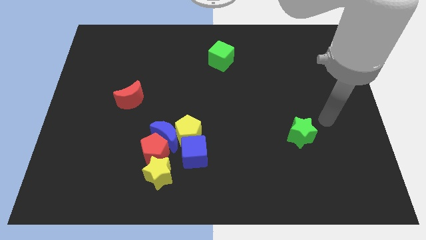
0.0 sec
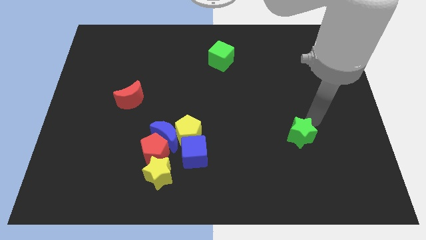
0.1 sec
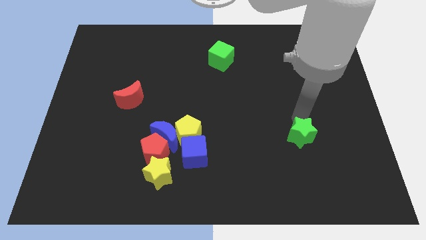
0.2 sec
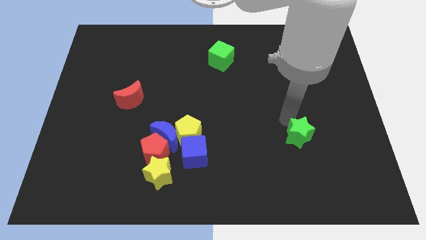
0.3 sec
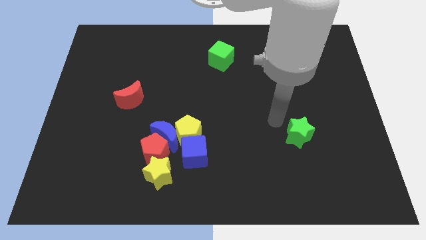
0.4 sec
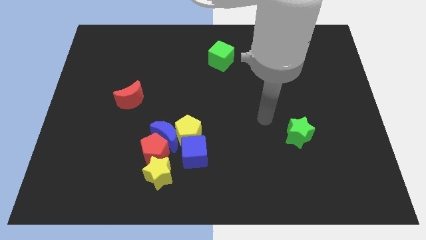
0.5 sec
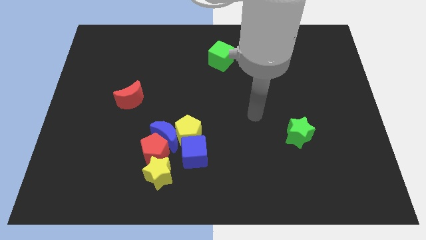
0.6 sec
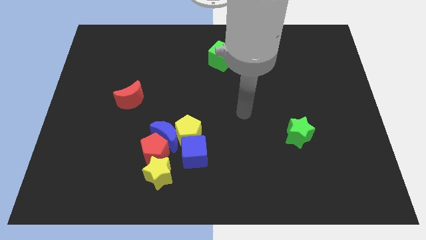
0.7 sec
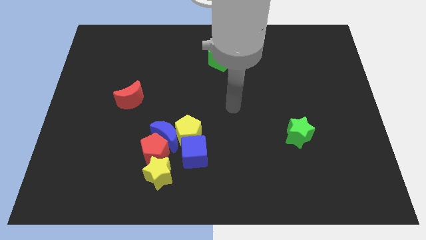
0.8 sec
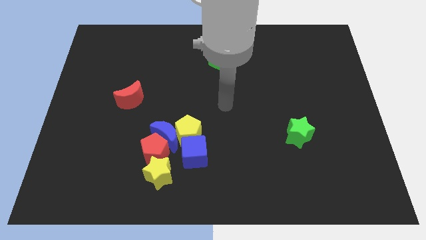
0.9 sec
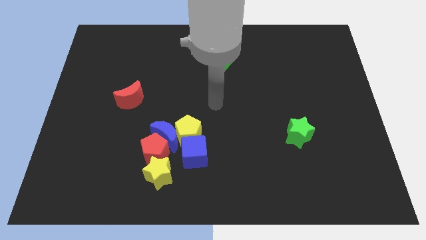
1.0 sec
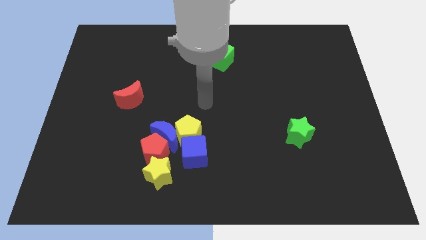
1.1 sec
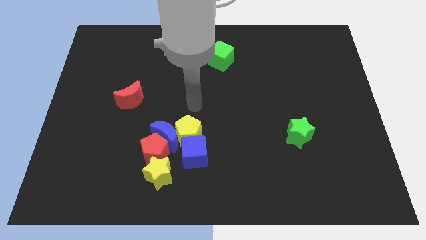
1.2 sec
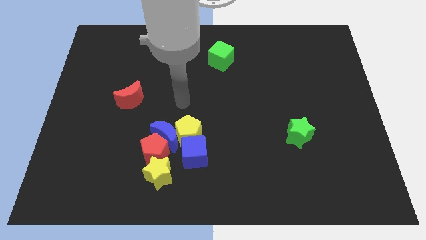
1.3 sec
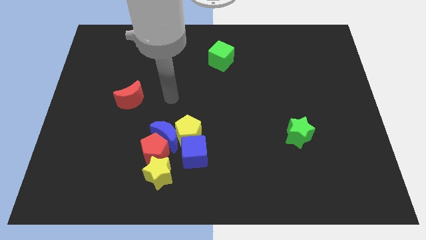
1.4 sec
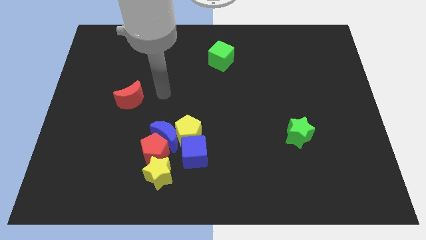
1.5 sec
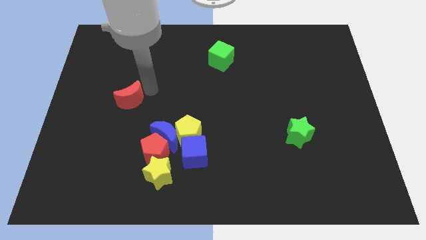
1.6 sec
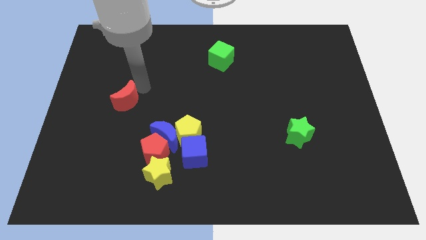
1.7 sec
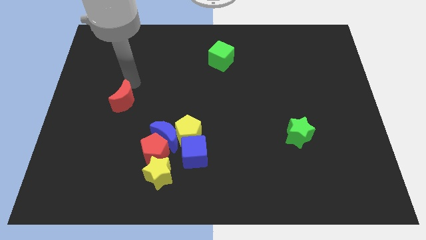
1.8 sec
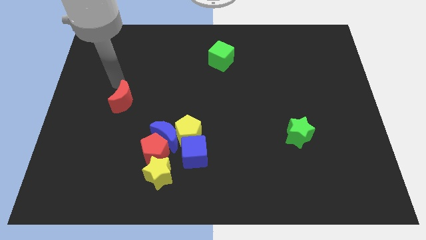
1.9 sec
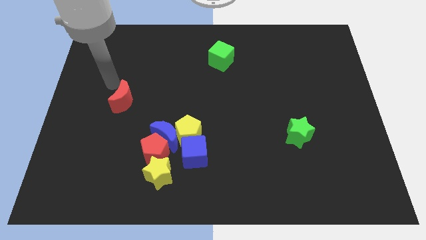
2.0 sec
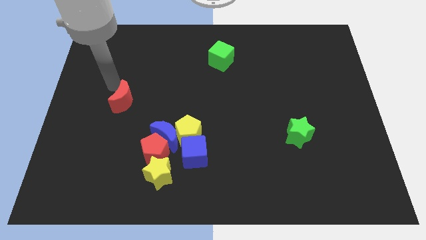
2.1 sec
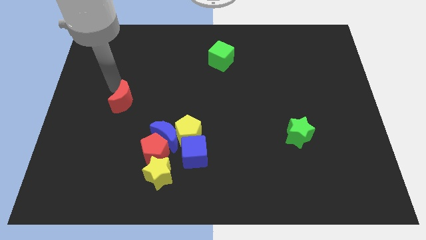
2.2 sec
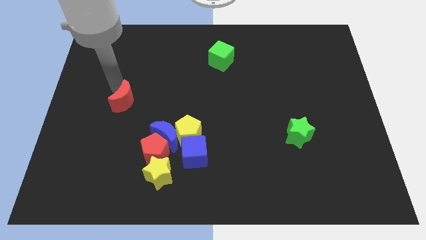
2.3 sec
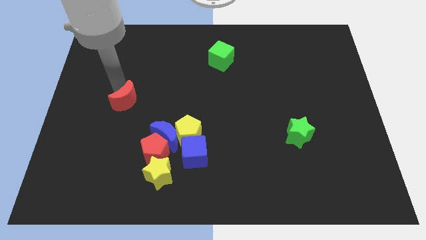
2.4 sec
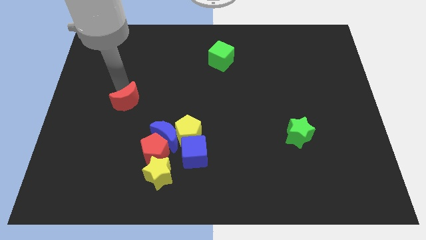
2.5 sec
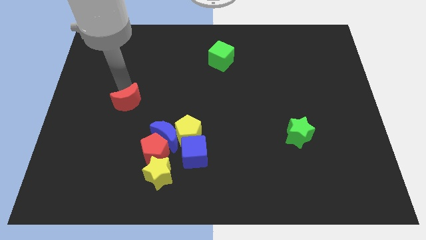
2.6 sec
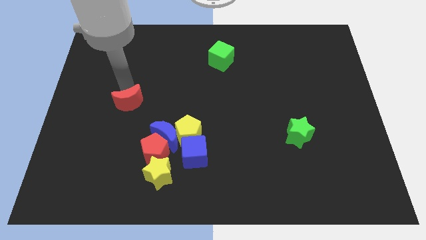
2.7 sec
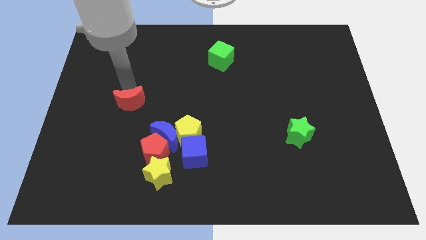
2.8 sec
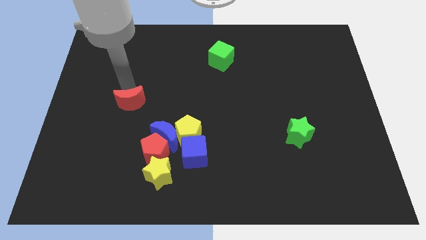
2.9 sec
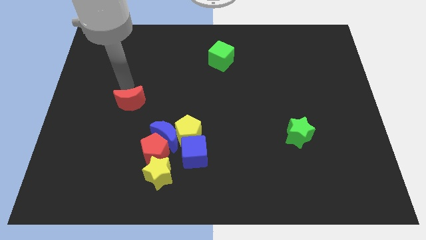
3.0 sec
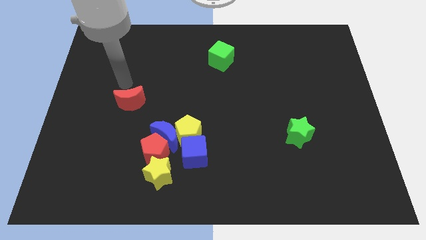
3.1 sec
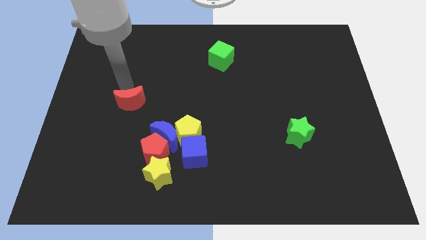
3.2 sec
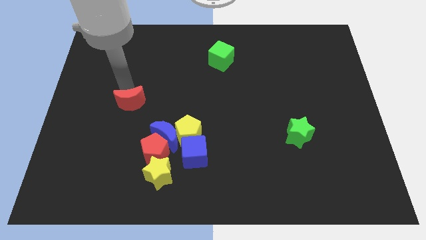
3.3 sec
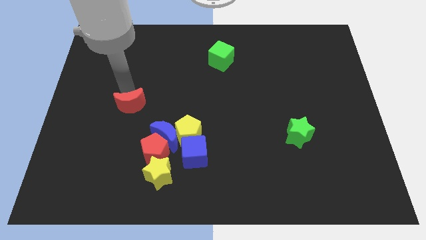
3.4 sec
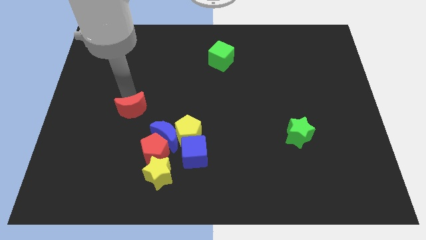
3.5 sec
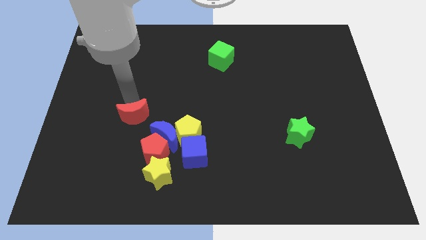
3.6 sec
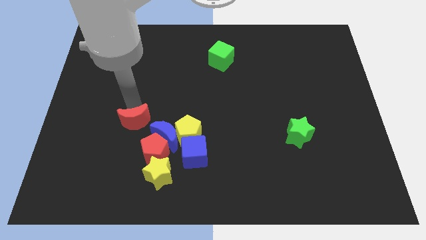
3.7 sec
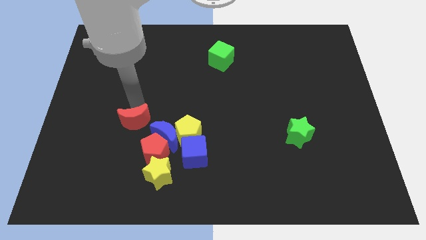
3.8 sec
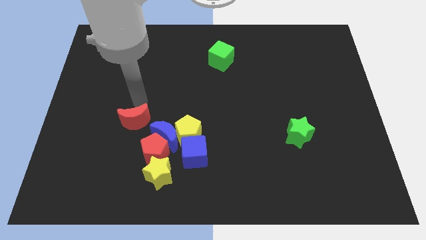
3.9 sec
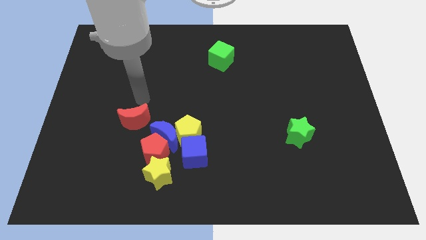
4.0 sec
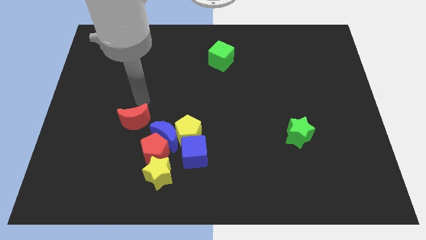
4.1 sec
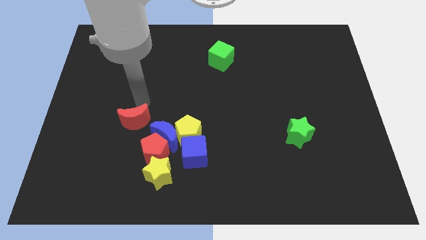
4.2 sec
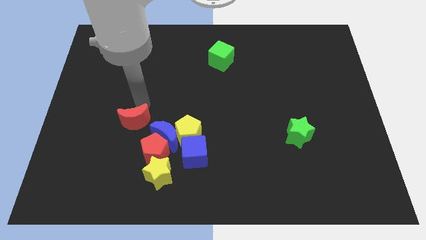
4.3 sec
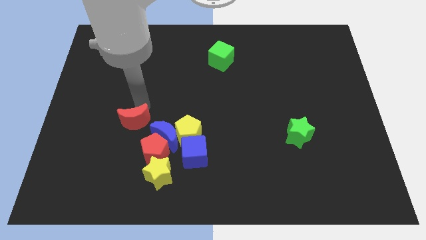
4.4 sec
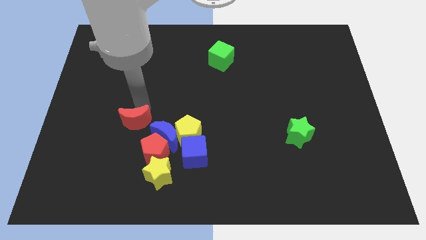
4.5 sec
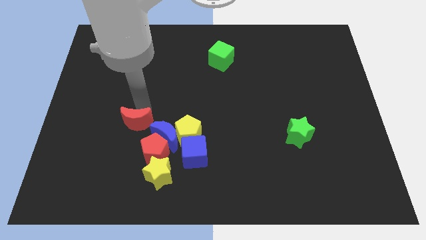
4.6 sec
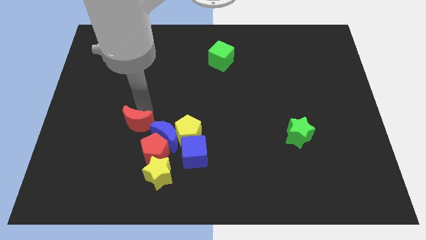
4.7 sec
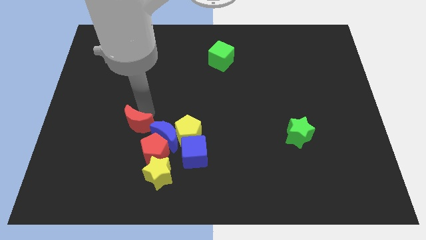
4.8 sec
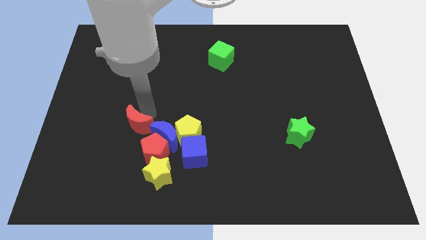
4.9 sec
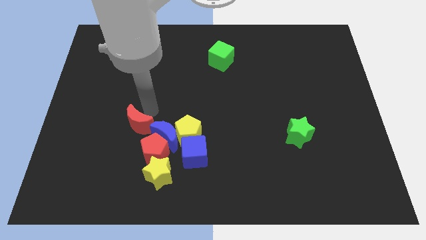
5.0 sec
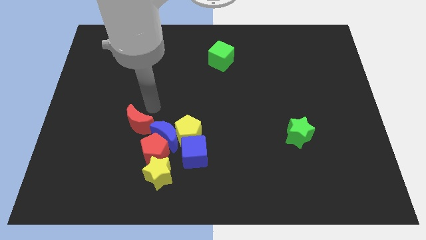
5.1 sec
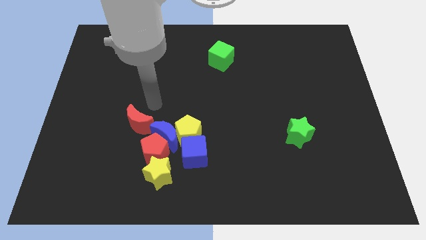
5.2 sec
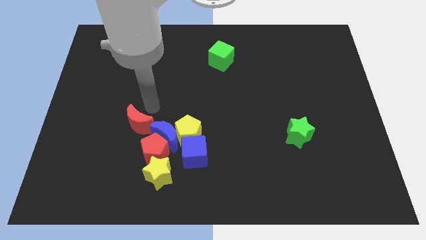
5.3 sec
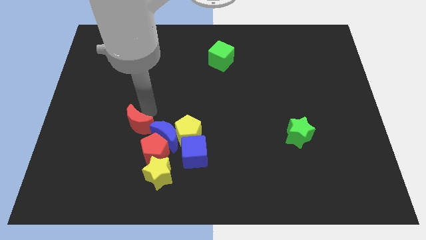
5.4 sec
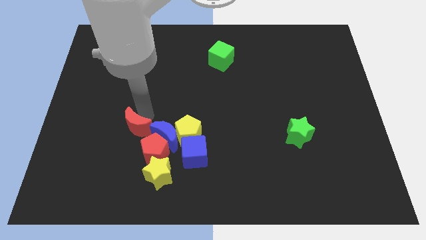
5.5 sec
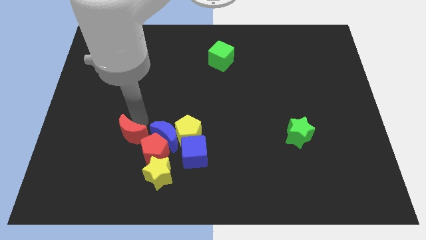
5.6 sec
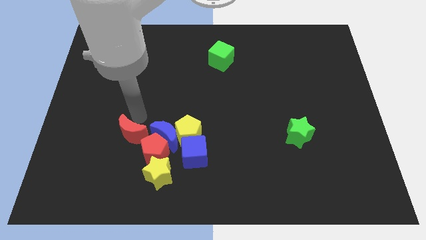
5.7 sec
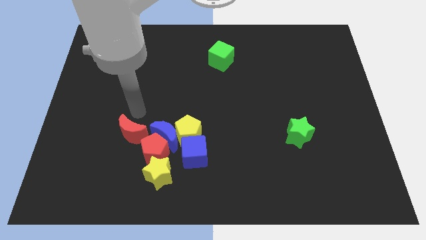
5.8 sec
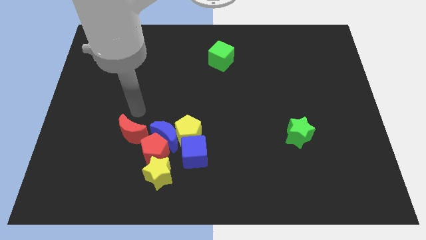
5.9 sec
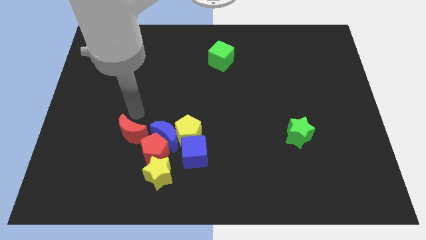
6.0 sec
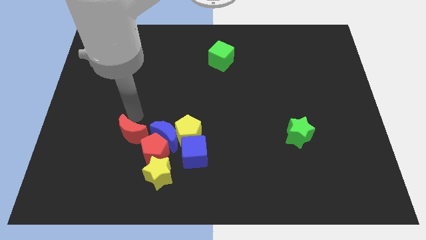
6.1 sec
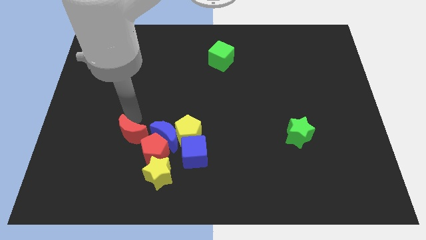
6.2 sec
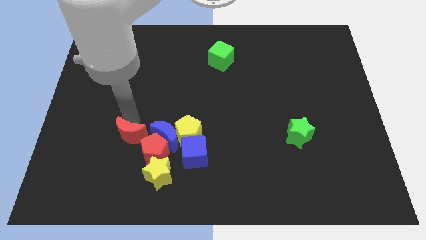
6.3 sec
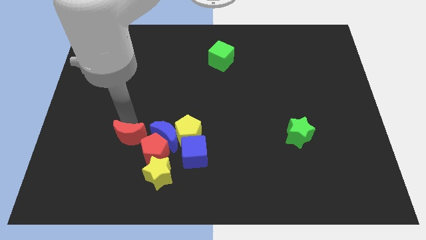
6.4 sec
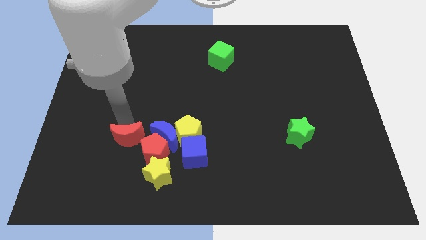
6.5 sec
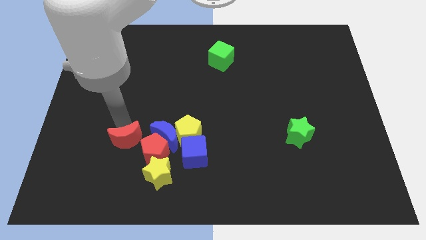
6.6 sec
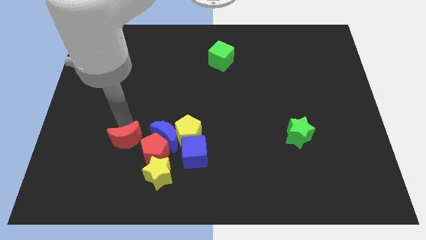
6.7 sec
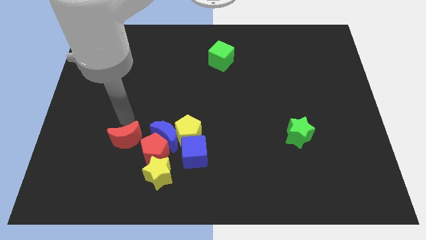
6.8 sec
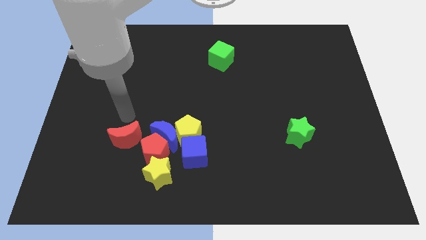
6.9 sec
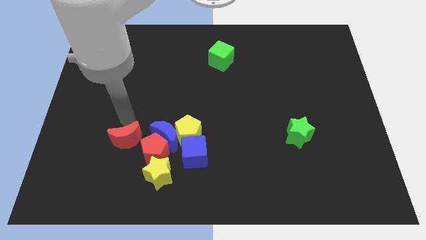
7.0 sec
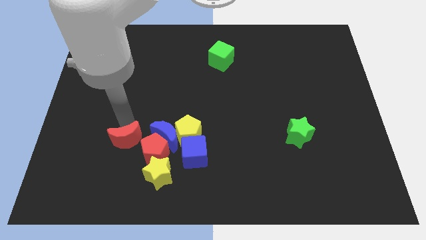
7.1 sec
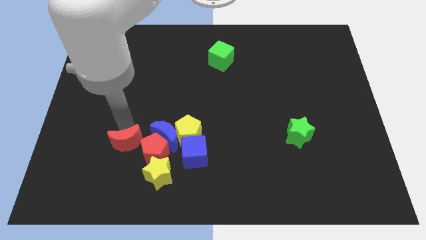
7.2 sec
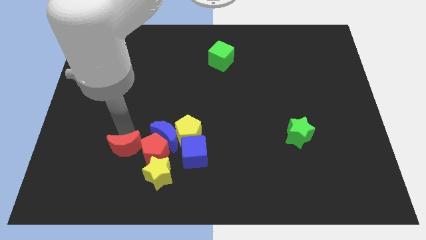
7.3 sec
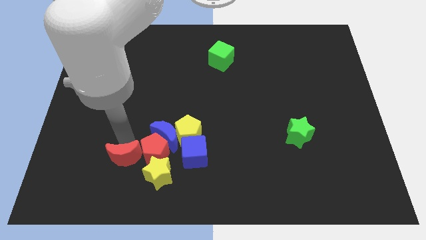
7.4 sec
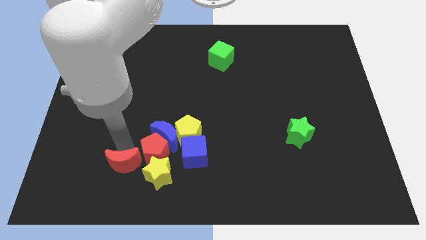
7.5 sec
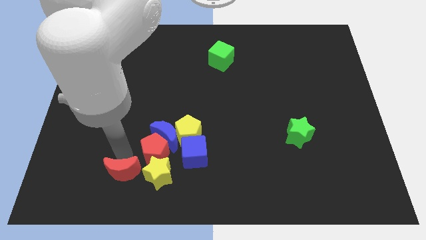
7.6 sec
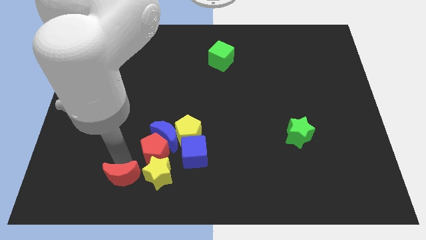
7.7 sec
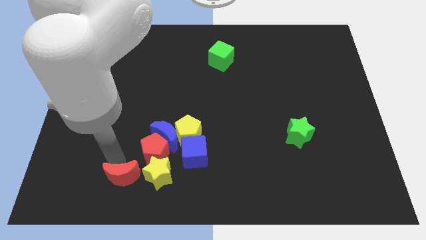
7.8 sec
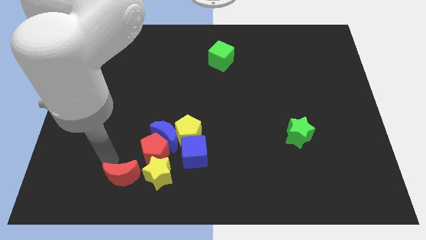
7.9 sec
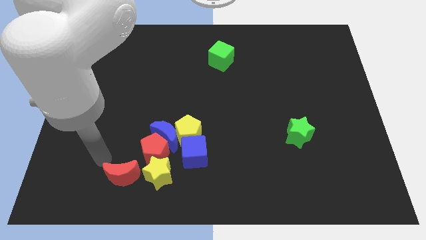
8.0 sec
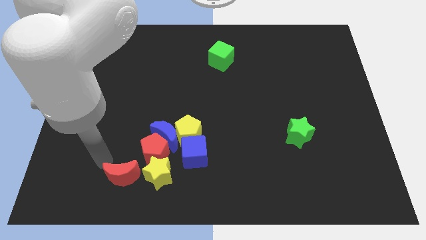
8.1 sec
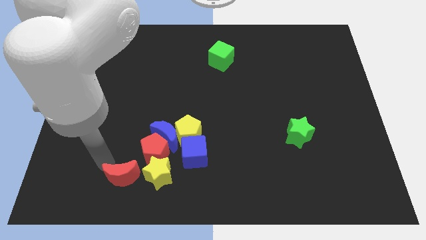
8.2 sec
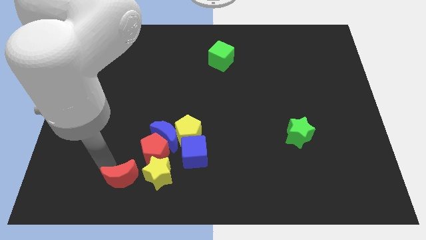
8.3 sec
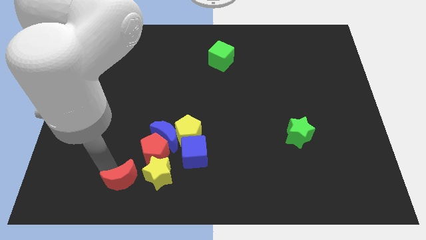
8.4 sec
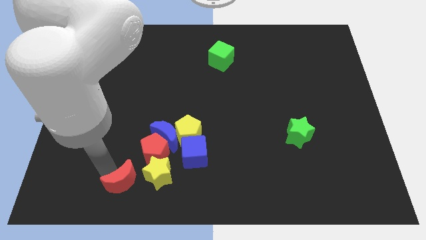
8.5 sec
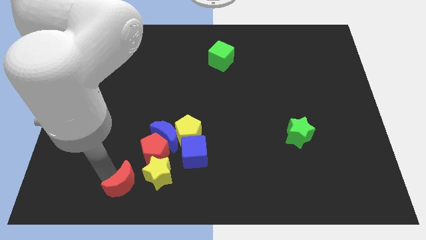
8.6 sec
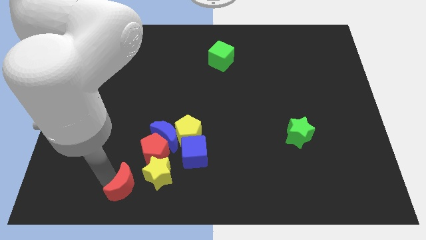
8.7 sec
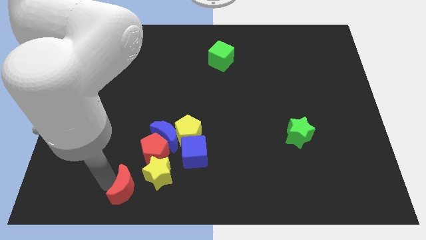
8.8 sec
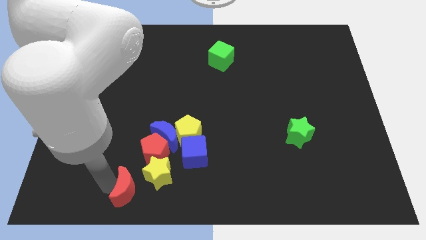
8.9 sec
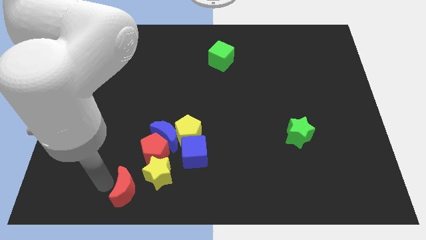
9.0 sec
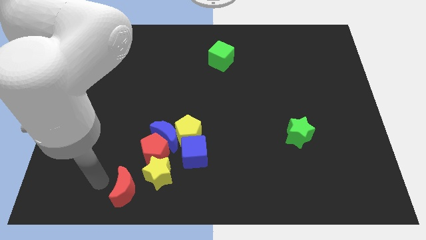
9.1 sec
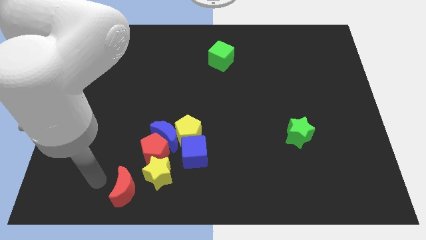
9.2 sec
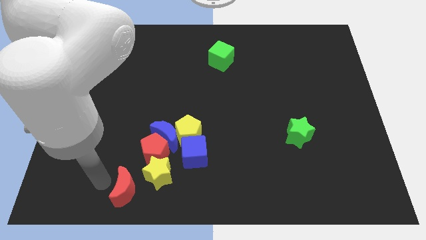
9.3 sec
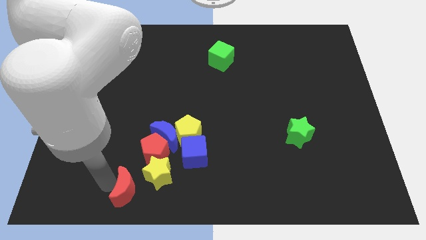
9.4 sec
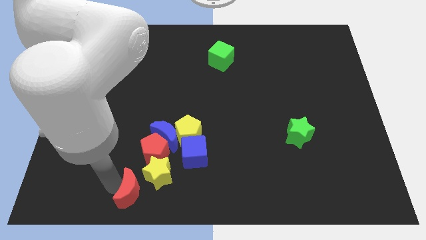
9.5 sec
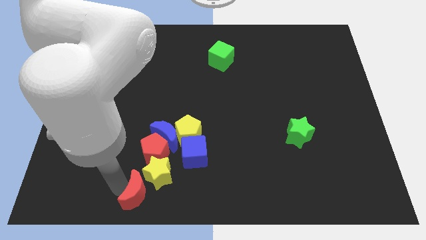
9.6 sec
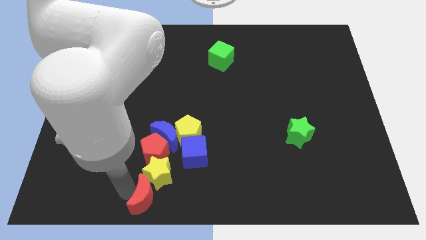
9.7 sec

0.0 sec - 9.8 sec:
move the red moon to the bottom side
